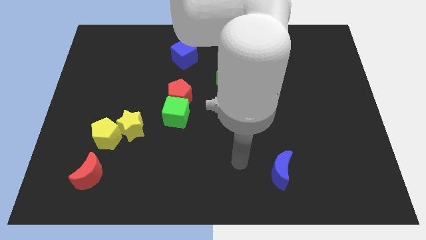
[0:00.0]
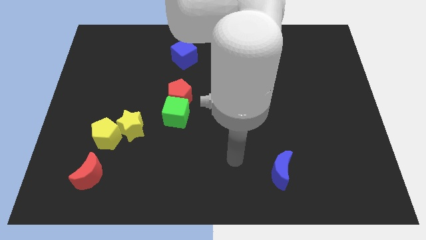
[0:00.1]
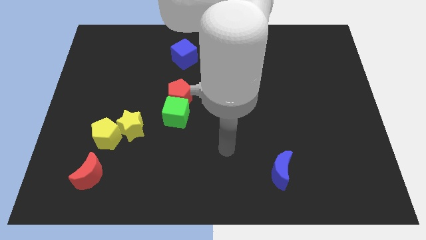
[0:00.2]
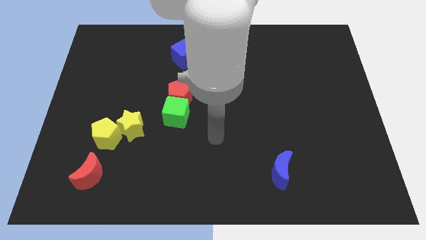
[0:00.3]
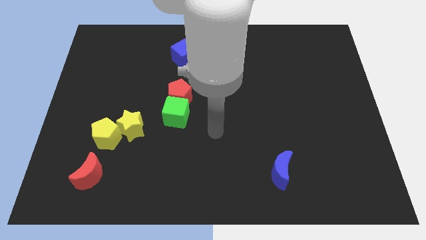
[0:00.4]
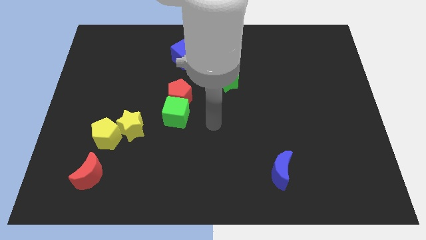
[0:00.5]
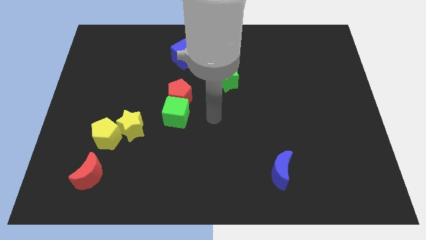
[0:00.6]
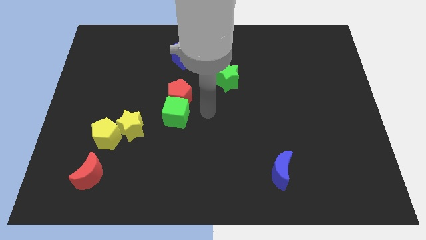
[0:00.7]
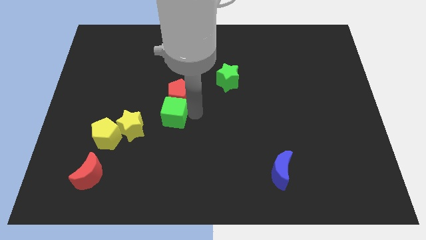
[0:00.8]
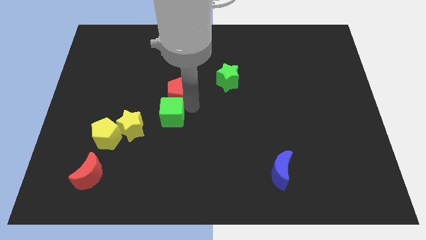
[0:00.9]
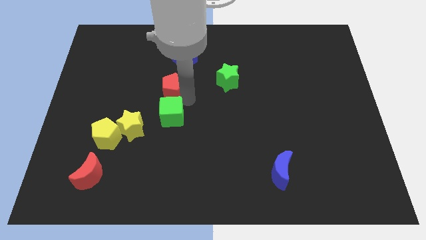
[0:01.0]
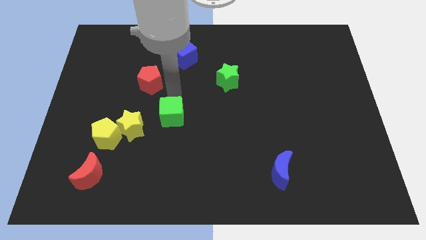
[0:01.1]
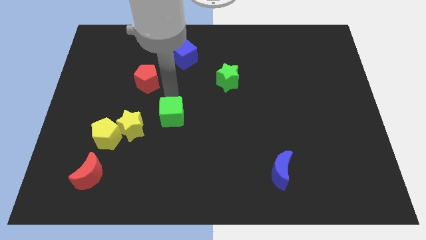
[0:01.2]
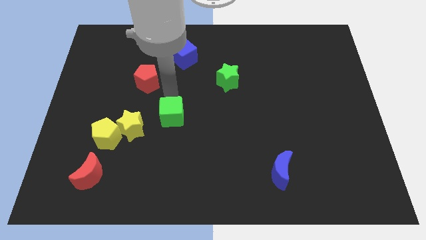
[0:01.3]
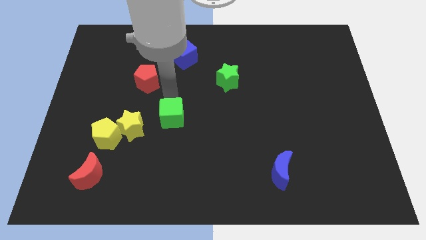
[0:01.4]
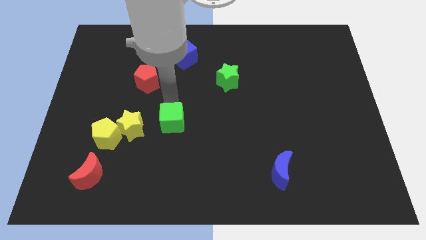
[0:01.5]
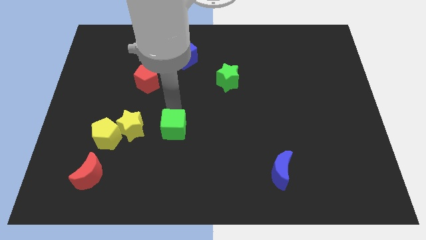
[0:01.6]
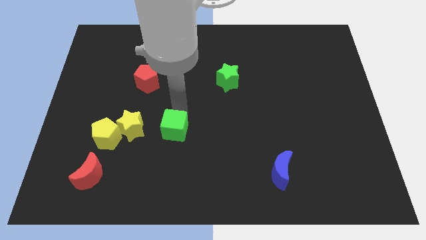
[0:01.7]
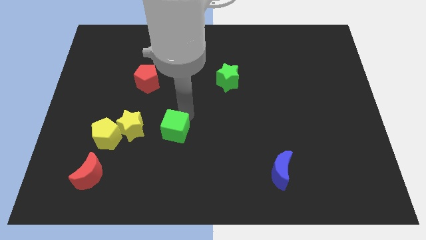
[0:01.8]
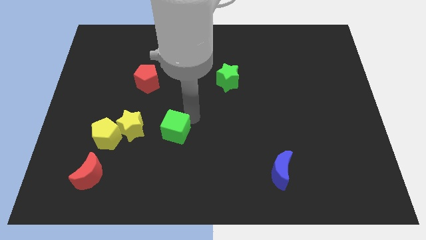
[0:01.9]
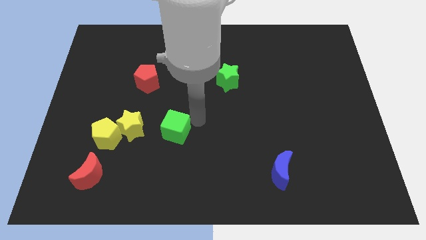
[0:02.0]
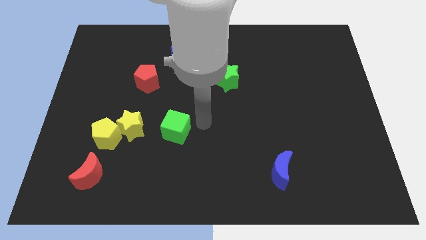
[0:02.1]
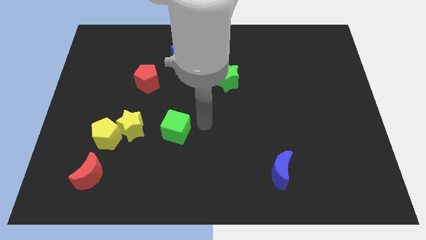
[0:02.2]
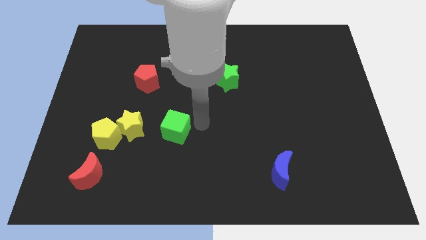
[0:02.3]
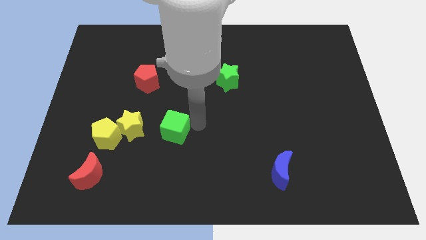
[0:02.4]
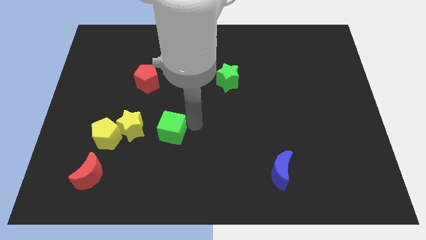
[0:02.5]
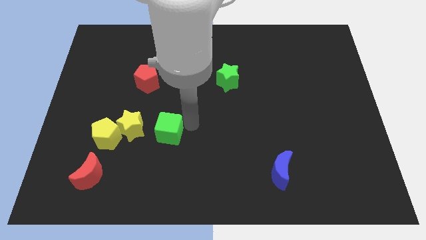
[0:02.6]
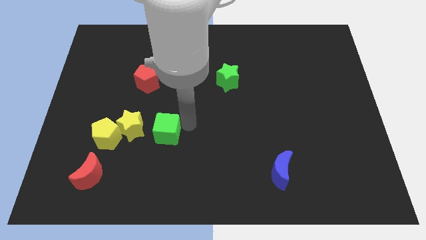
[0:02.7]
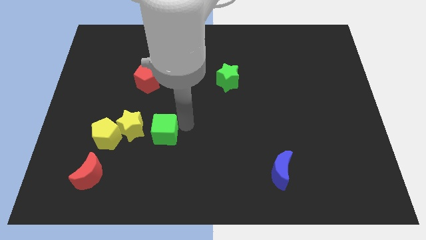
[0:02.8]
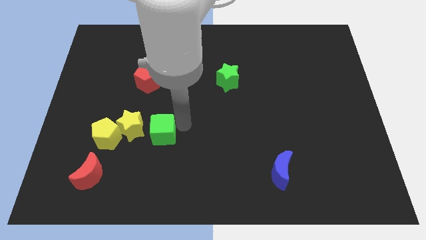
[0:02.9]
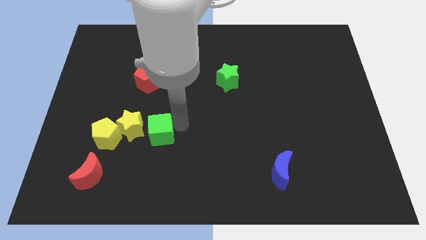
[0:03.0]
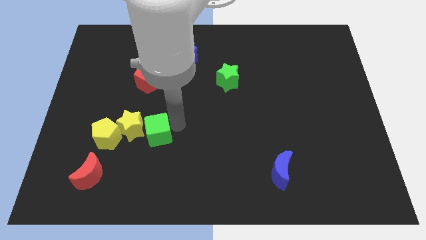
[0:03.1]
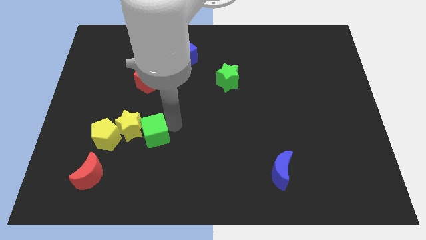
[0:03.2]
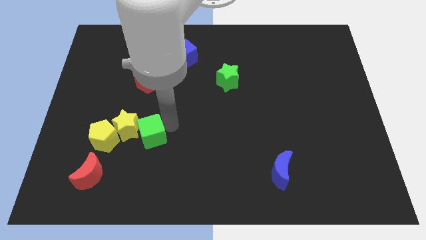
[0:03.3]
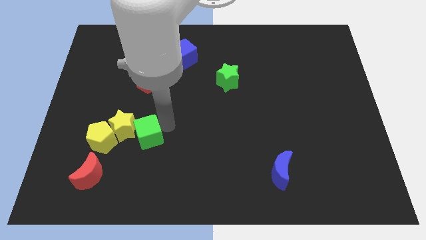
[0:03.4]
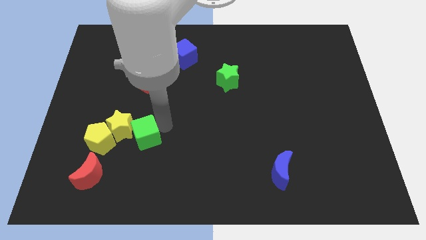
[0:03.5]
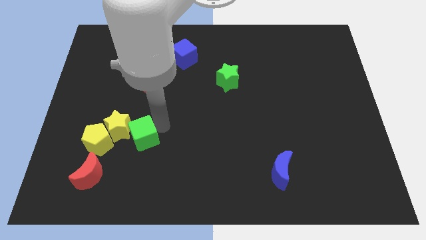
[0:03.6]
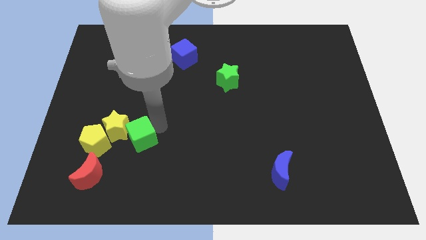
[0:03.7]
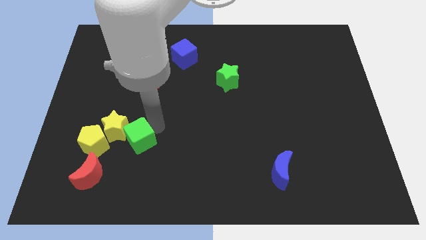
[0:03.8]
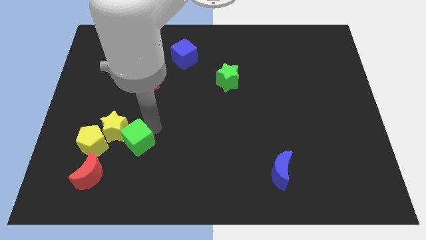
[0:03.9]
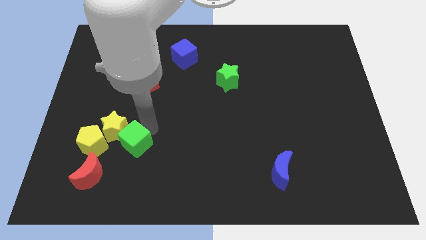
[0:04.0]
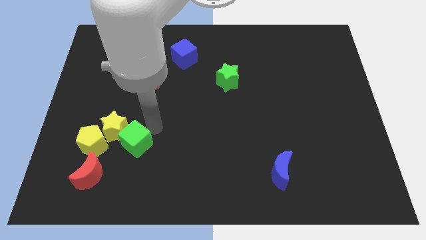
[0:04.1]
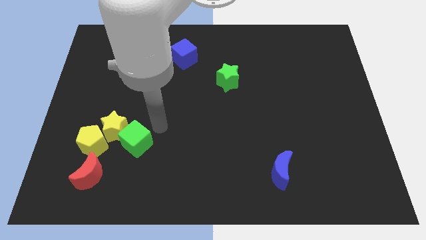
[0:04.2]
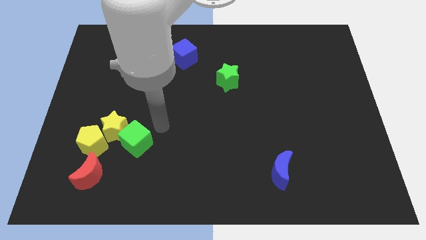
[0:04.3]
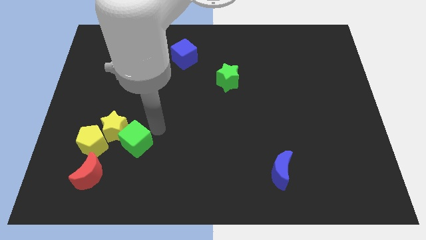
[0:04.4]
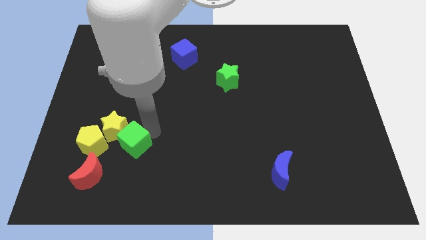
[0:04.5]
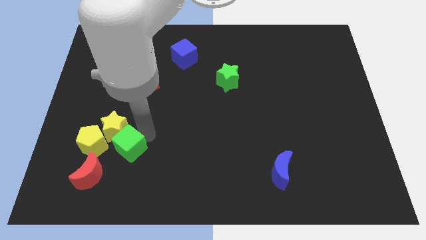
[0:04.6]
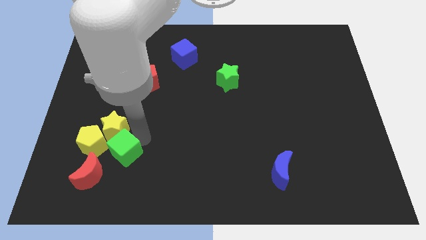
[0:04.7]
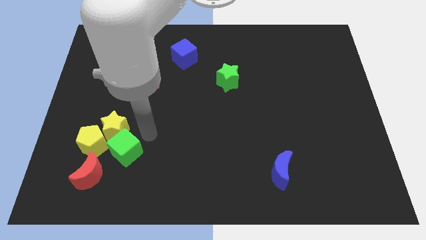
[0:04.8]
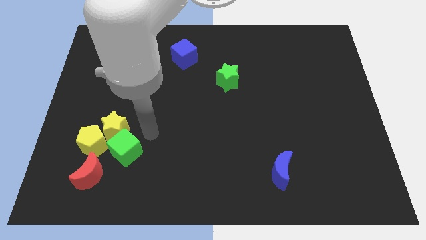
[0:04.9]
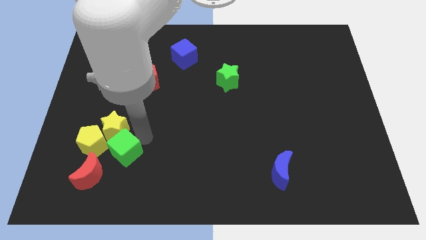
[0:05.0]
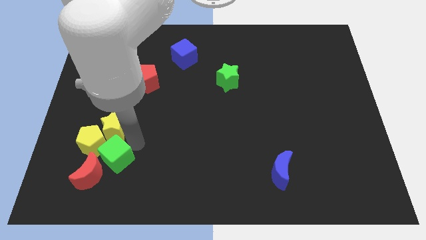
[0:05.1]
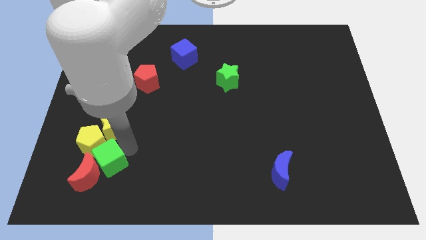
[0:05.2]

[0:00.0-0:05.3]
slide the green cube close to the red moon

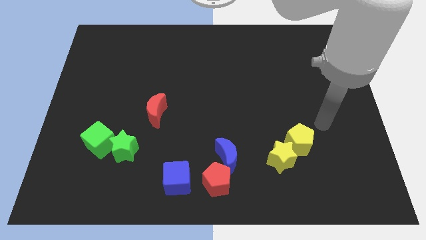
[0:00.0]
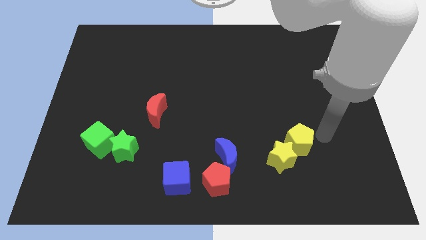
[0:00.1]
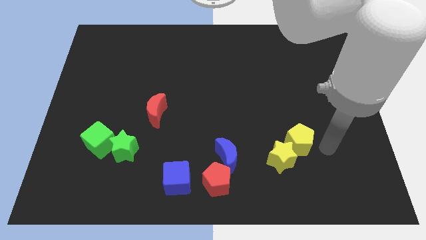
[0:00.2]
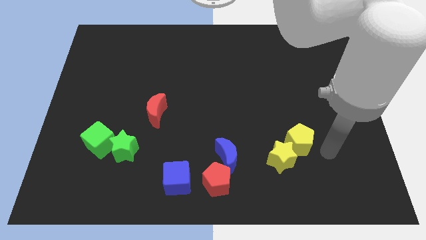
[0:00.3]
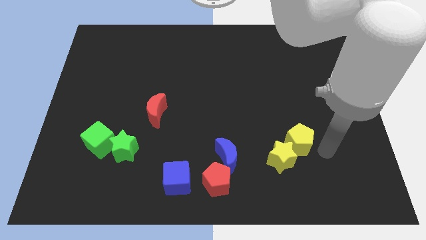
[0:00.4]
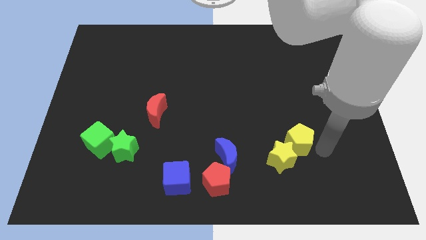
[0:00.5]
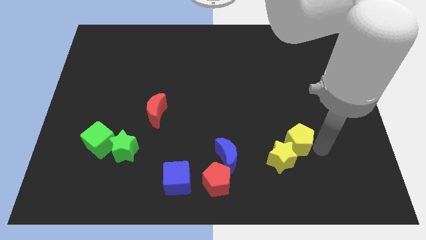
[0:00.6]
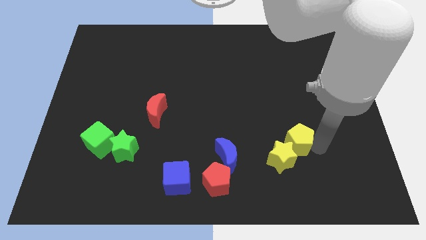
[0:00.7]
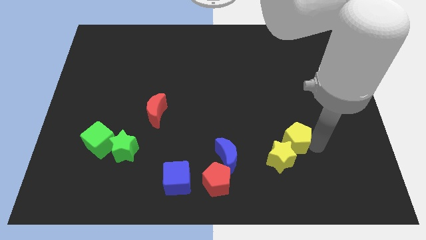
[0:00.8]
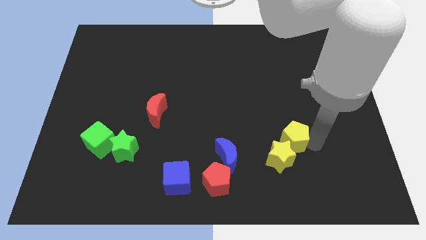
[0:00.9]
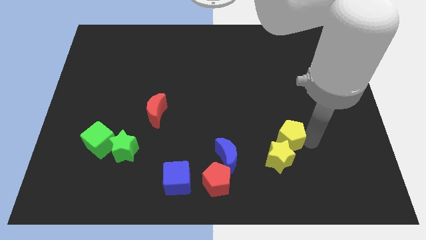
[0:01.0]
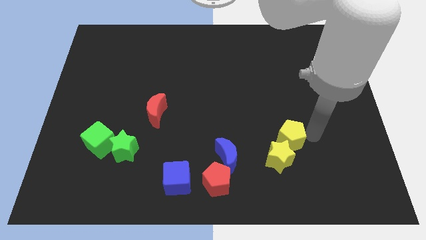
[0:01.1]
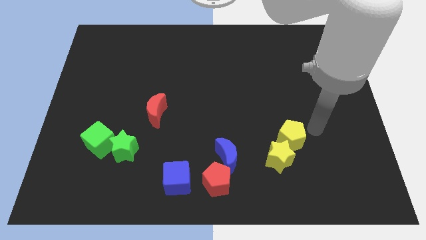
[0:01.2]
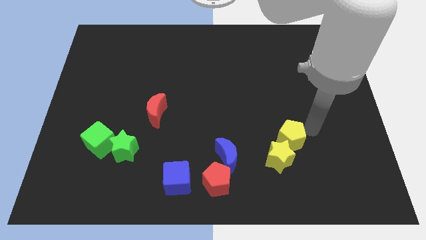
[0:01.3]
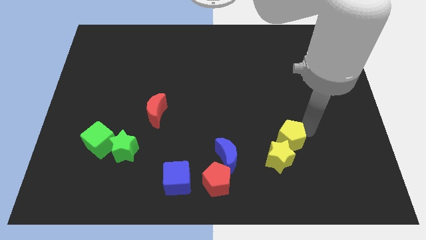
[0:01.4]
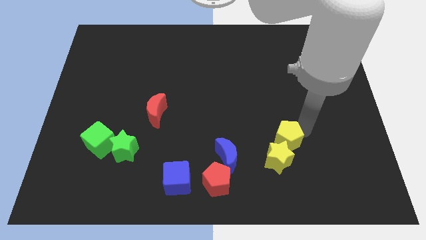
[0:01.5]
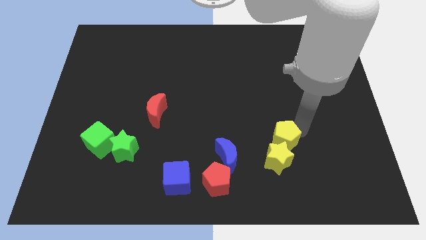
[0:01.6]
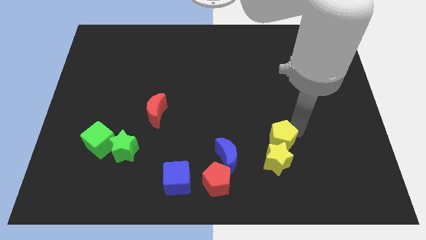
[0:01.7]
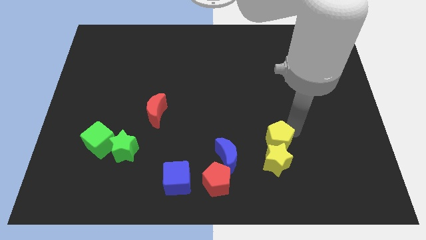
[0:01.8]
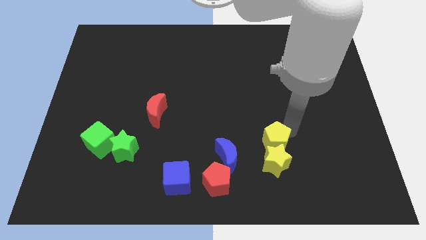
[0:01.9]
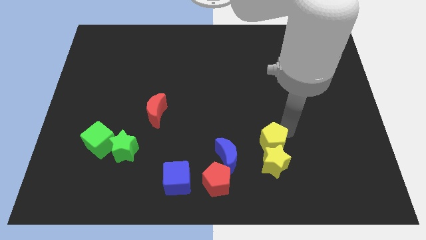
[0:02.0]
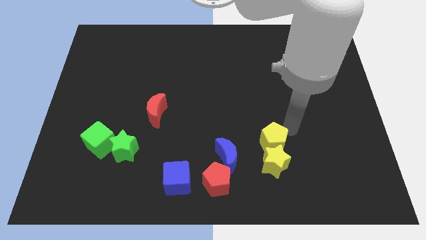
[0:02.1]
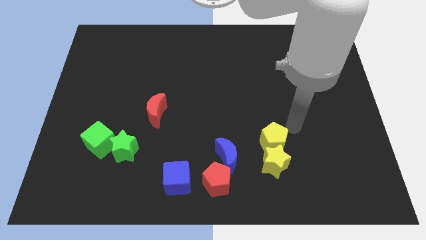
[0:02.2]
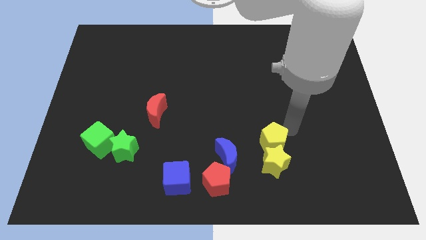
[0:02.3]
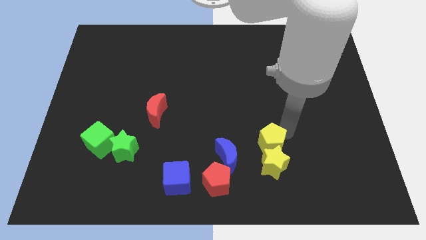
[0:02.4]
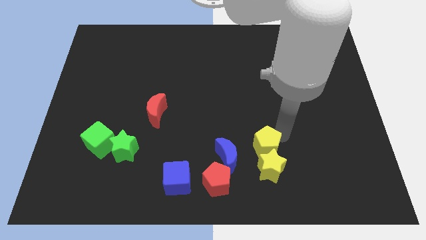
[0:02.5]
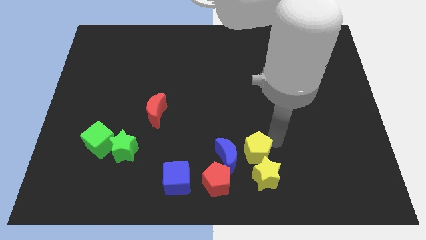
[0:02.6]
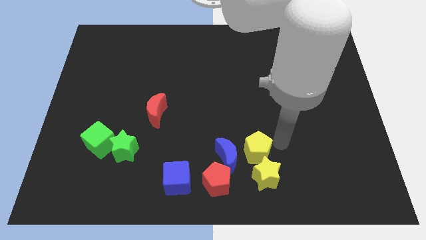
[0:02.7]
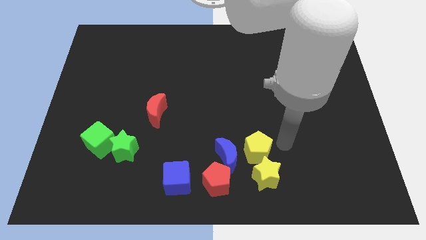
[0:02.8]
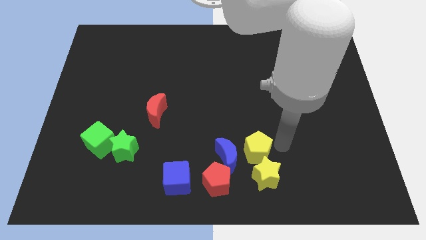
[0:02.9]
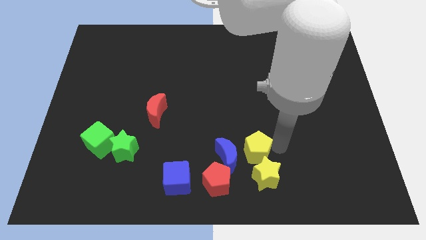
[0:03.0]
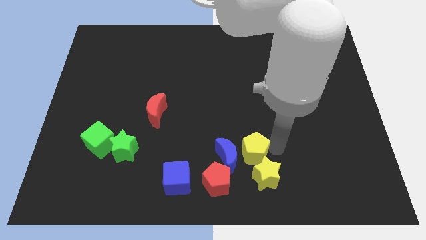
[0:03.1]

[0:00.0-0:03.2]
slide the yellow pentagon close to the blue moon
